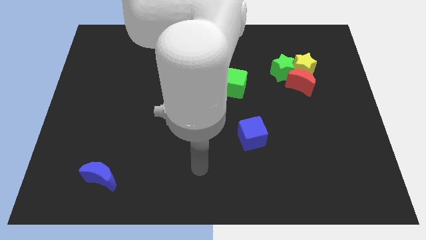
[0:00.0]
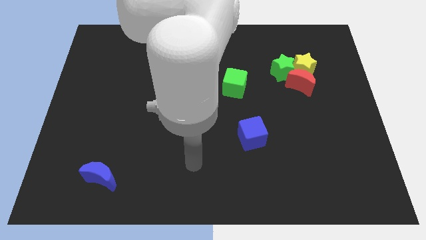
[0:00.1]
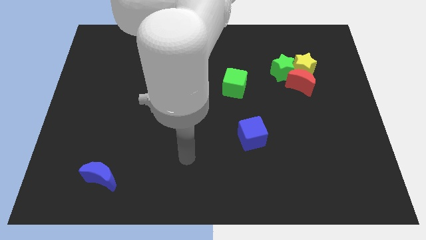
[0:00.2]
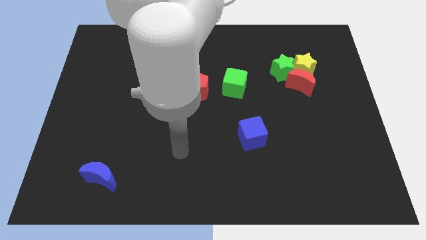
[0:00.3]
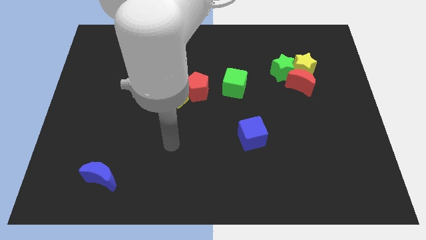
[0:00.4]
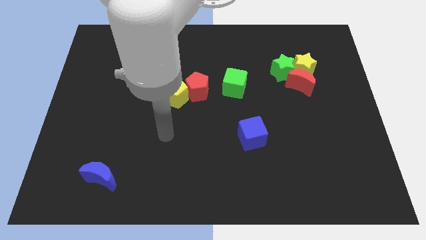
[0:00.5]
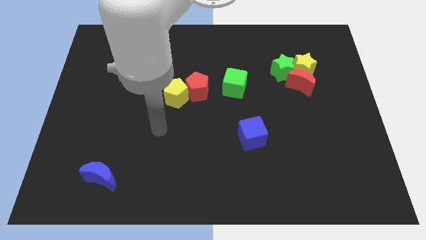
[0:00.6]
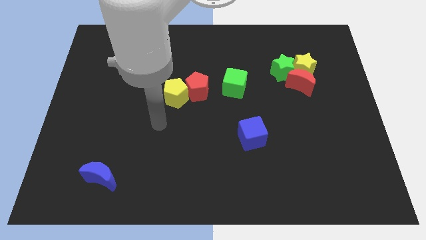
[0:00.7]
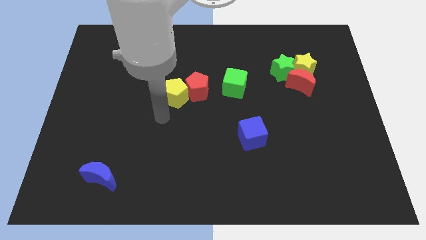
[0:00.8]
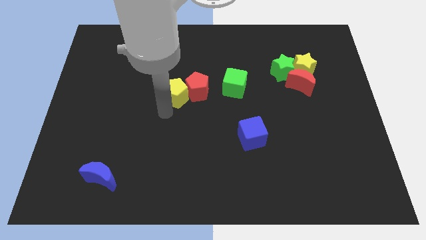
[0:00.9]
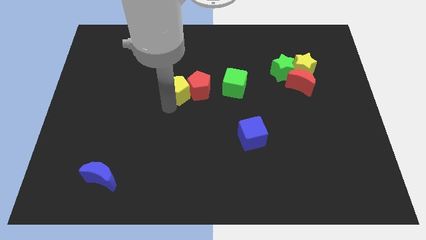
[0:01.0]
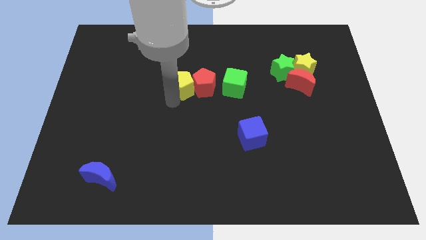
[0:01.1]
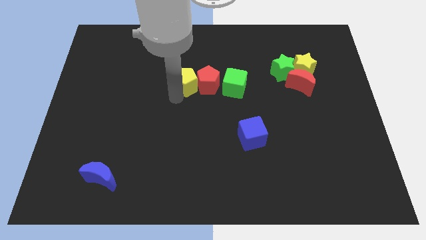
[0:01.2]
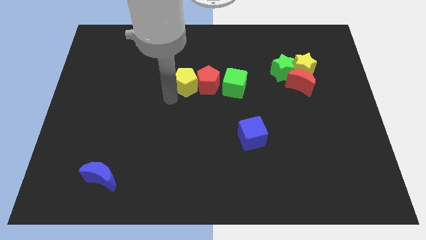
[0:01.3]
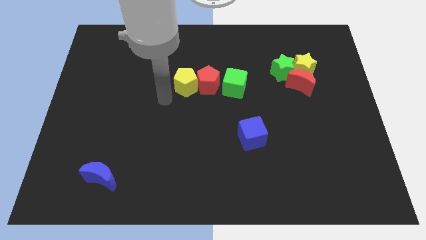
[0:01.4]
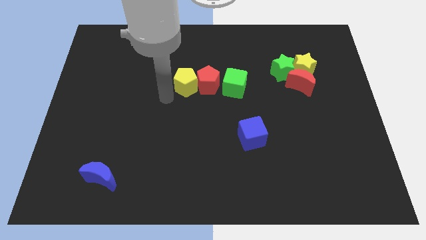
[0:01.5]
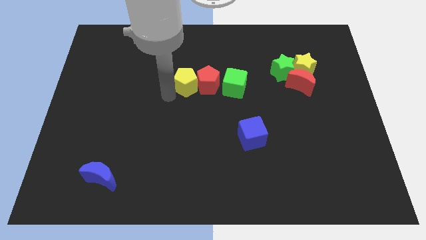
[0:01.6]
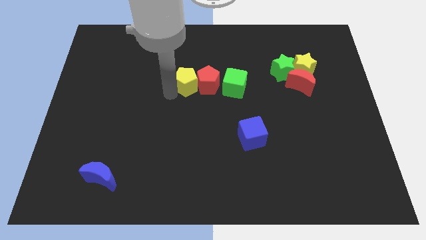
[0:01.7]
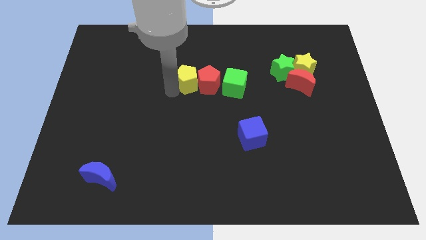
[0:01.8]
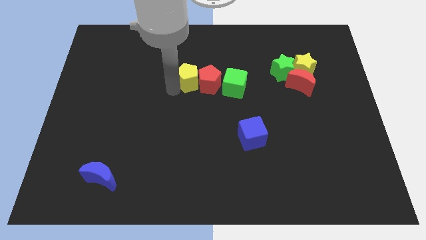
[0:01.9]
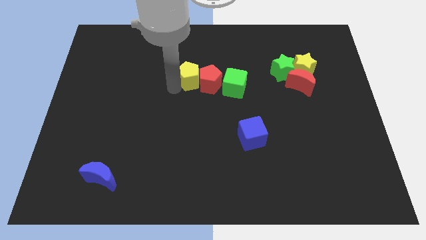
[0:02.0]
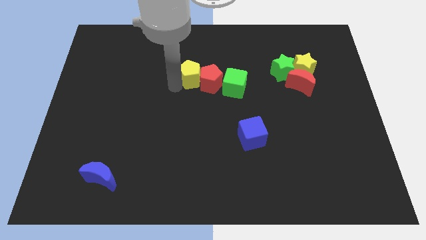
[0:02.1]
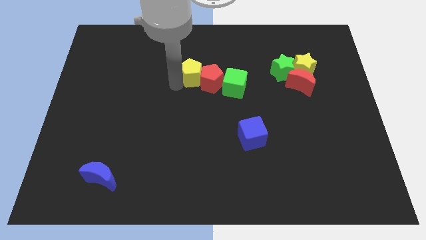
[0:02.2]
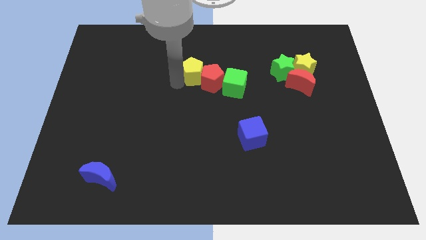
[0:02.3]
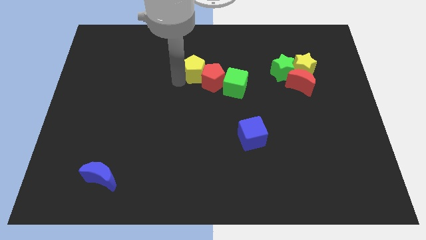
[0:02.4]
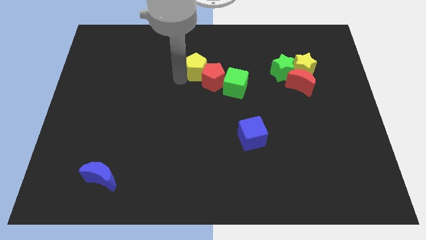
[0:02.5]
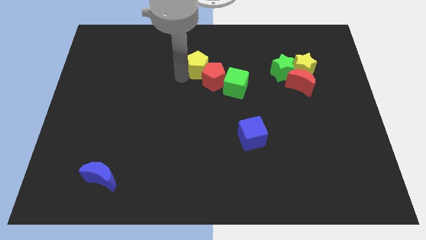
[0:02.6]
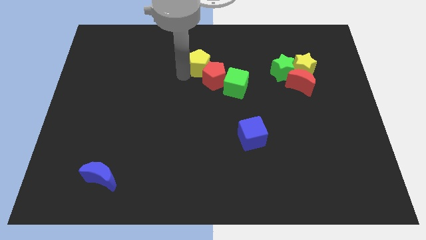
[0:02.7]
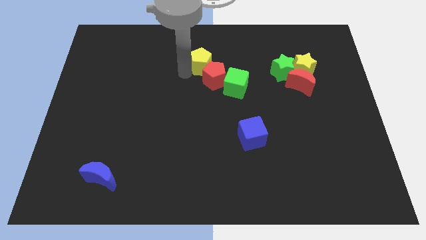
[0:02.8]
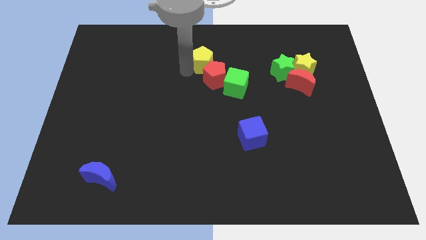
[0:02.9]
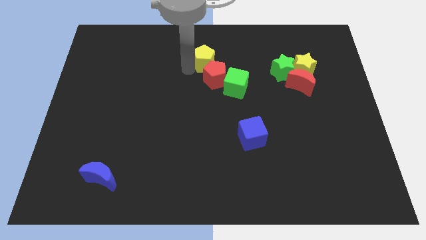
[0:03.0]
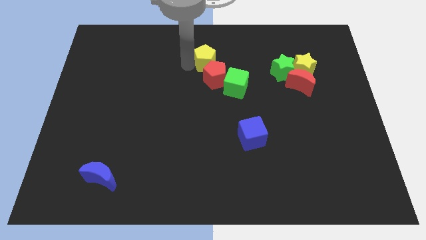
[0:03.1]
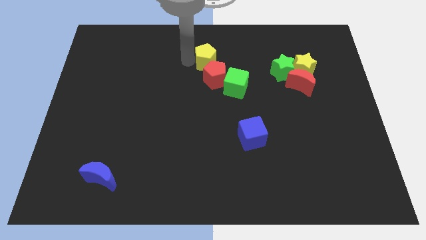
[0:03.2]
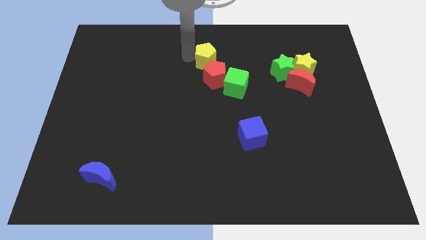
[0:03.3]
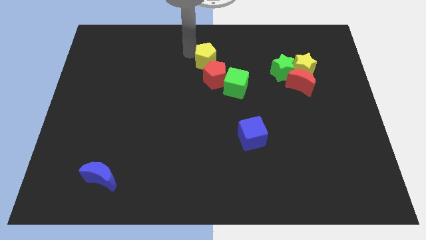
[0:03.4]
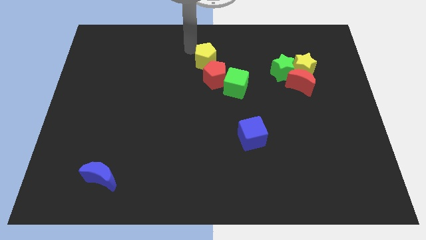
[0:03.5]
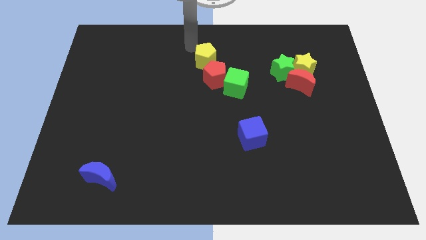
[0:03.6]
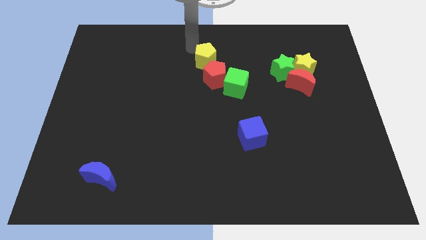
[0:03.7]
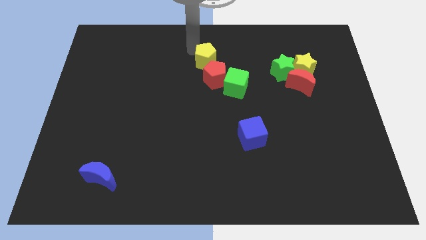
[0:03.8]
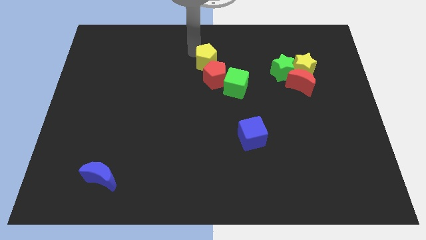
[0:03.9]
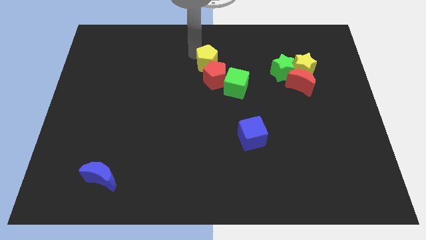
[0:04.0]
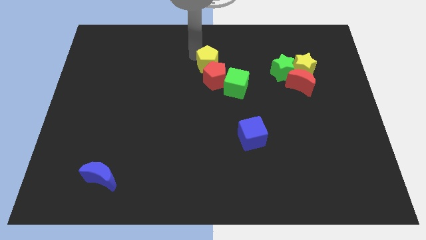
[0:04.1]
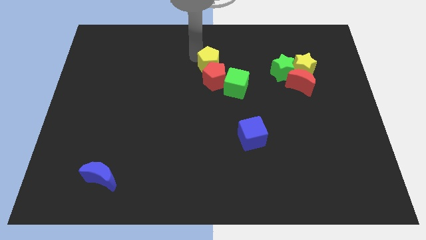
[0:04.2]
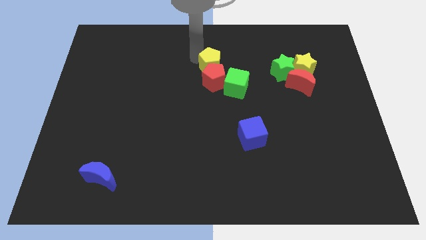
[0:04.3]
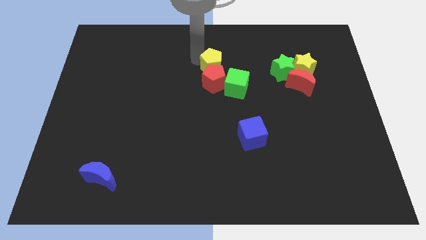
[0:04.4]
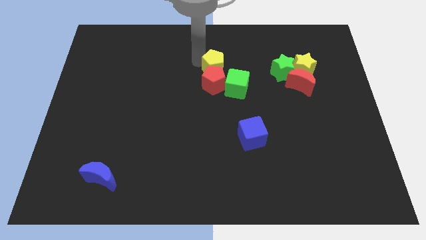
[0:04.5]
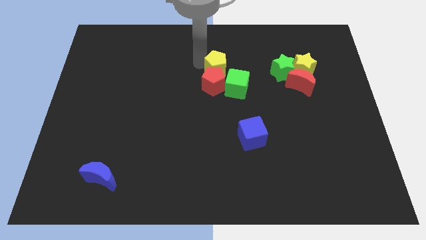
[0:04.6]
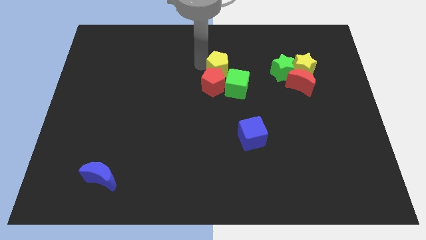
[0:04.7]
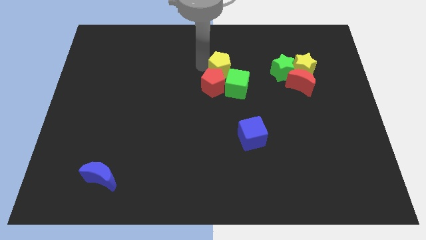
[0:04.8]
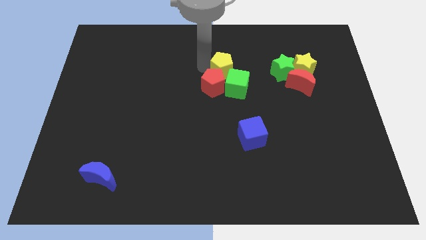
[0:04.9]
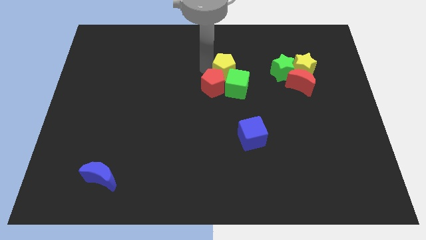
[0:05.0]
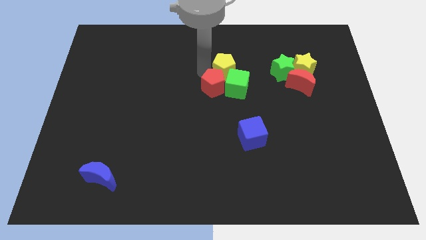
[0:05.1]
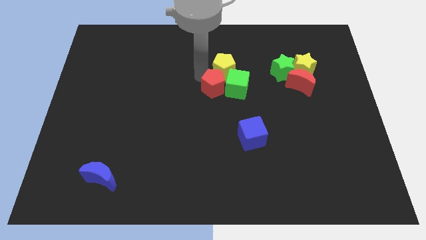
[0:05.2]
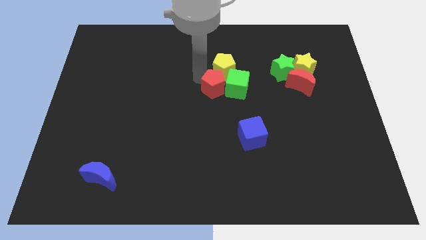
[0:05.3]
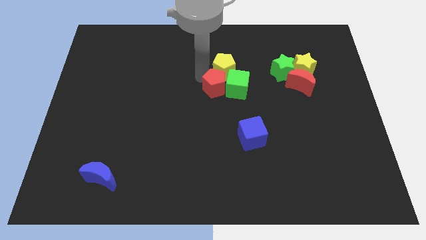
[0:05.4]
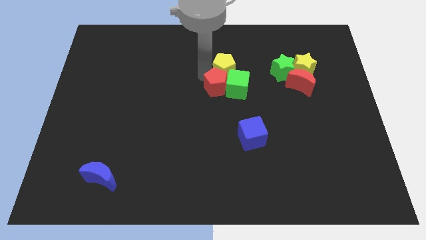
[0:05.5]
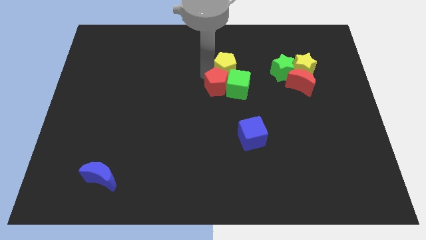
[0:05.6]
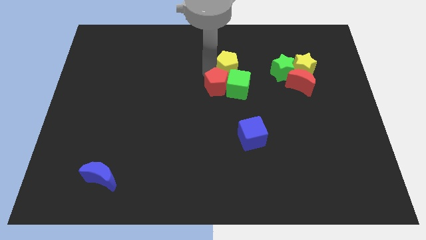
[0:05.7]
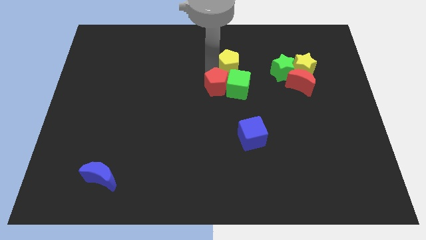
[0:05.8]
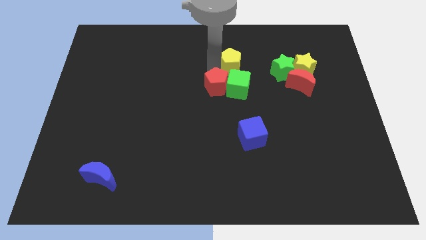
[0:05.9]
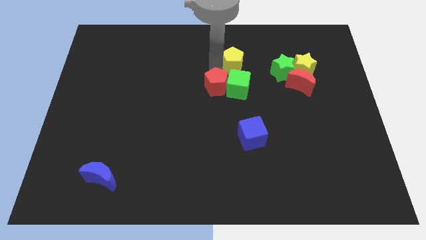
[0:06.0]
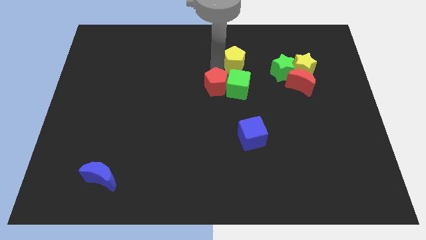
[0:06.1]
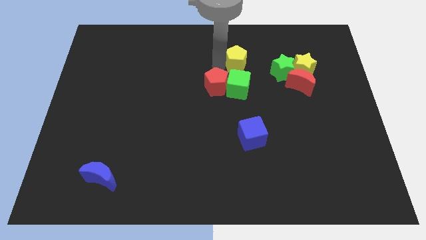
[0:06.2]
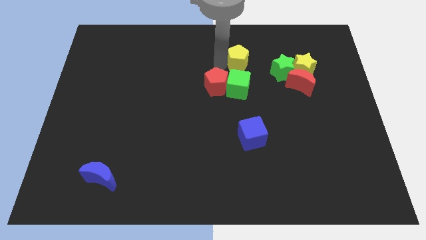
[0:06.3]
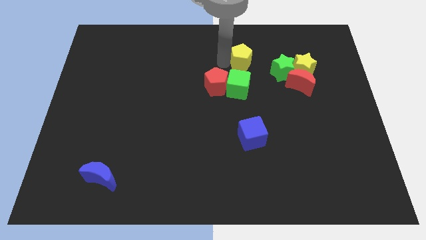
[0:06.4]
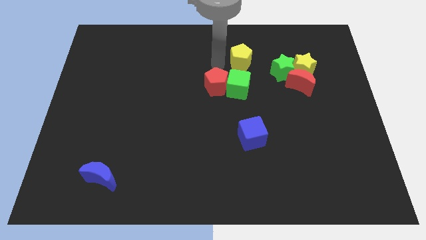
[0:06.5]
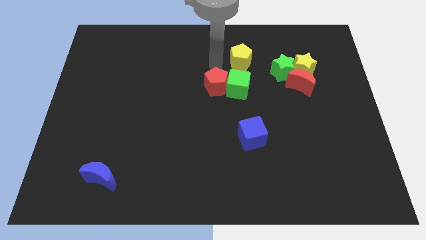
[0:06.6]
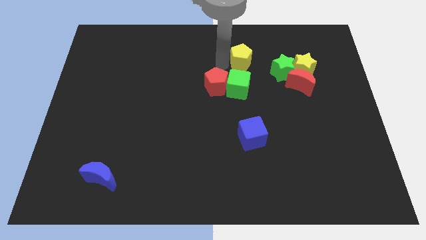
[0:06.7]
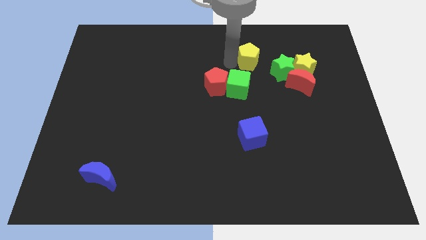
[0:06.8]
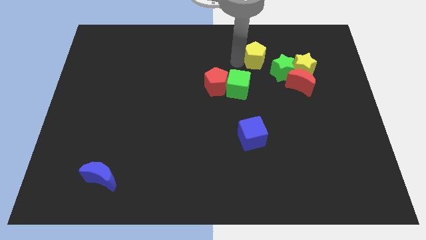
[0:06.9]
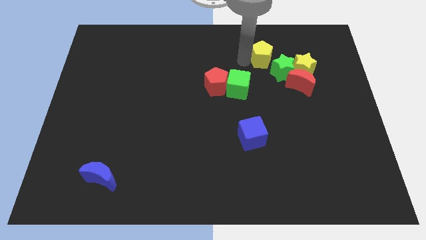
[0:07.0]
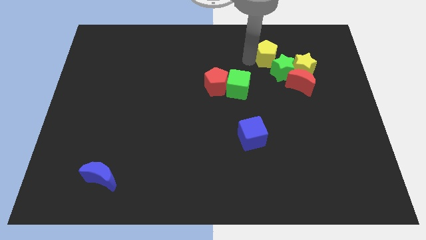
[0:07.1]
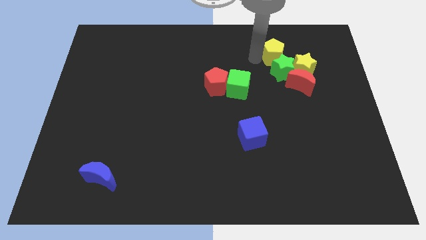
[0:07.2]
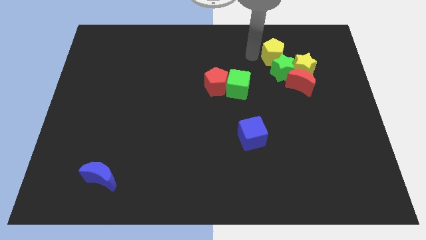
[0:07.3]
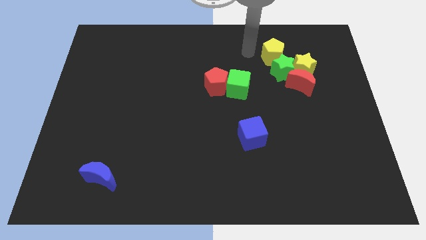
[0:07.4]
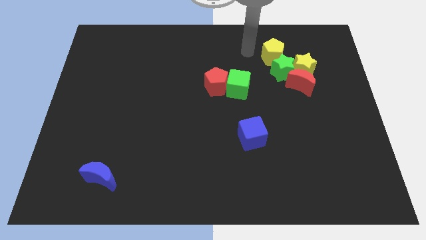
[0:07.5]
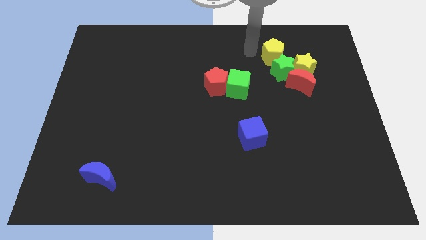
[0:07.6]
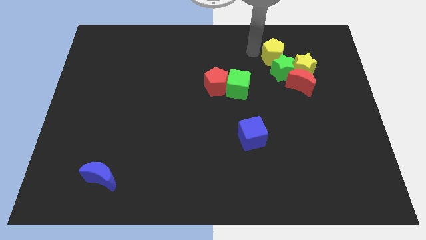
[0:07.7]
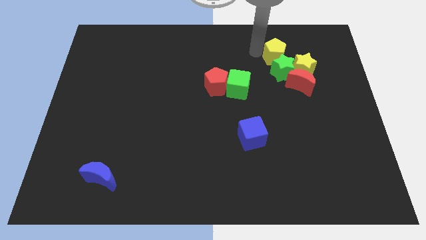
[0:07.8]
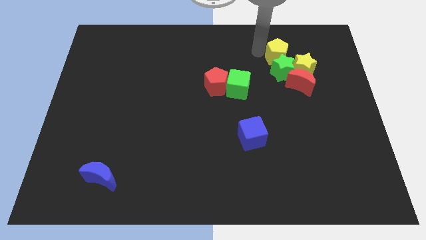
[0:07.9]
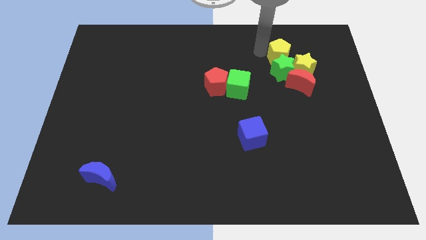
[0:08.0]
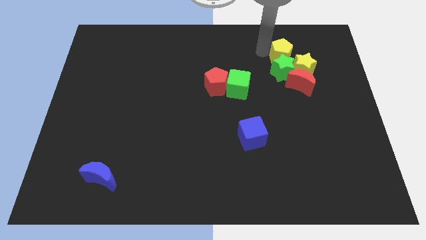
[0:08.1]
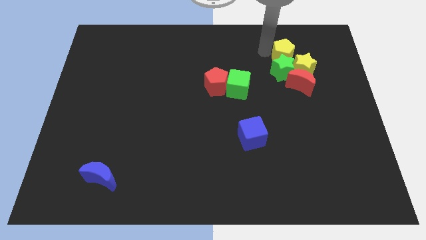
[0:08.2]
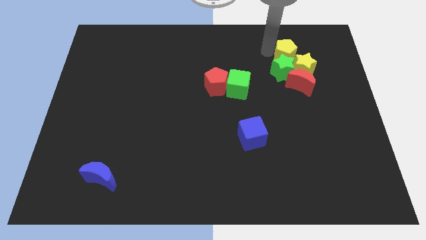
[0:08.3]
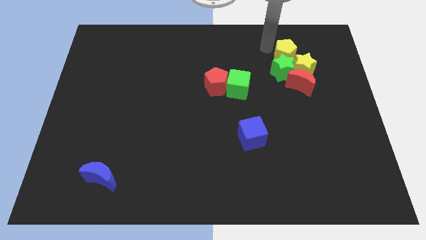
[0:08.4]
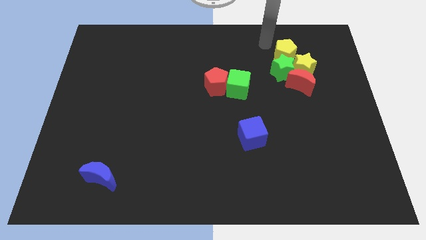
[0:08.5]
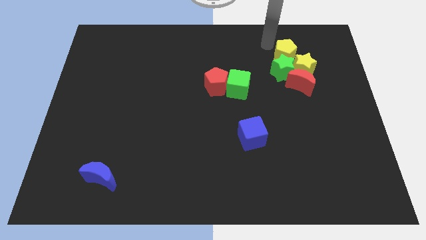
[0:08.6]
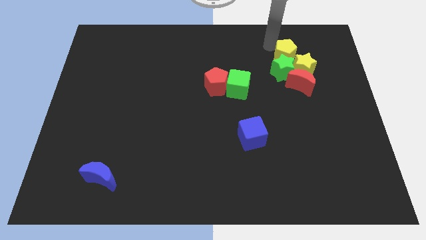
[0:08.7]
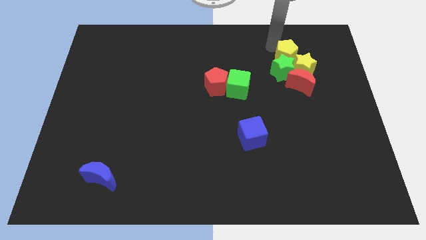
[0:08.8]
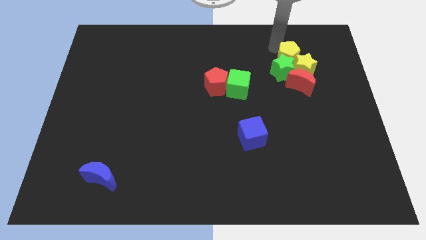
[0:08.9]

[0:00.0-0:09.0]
put the yellow pentagon towards the yellow star
